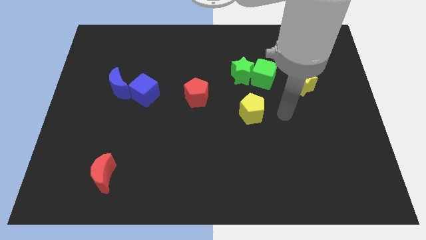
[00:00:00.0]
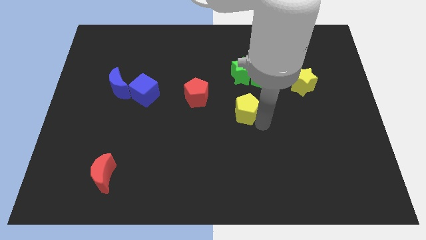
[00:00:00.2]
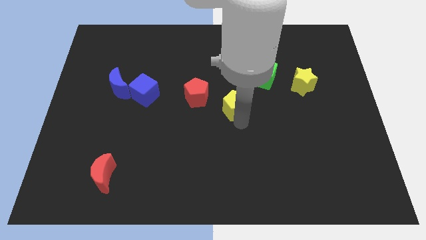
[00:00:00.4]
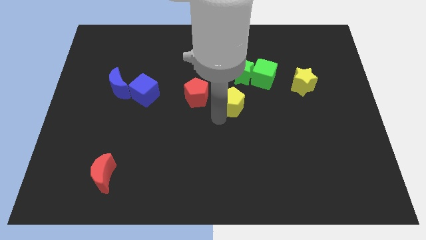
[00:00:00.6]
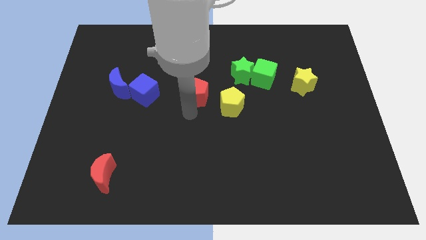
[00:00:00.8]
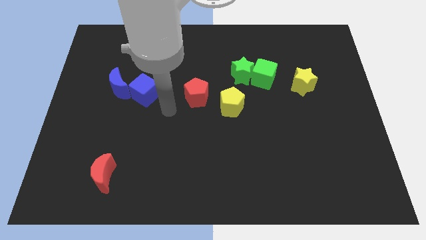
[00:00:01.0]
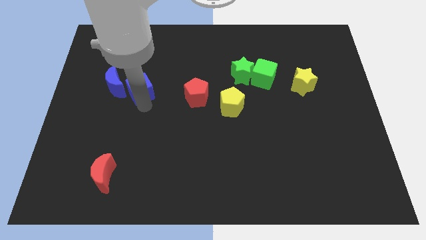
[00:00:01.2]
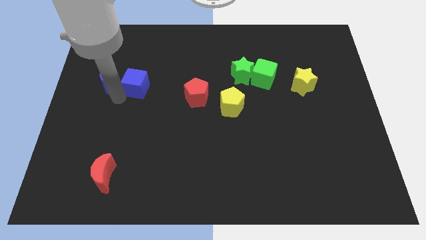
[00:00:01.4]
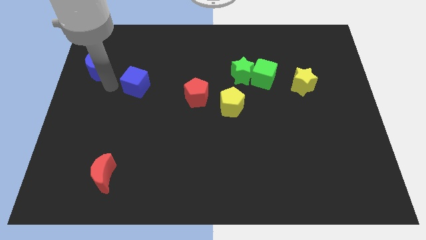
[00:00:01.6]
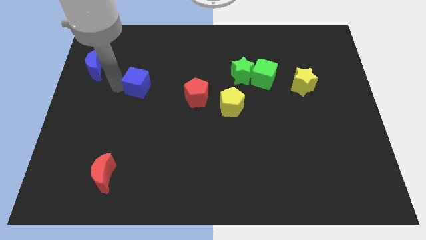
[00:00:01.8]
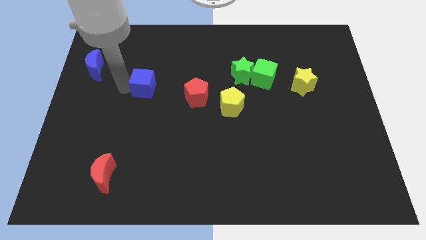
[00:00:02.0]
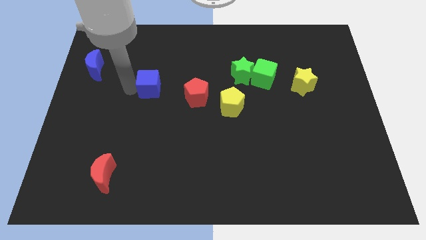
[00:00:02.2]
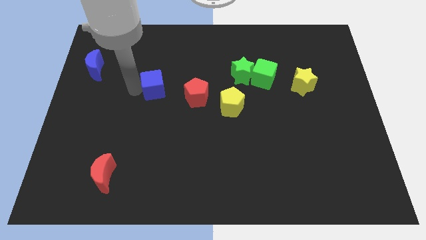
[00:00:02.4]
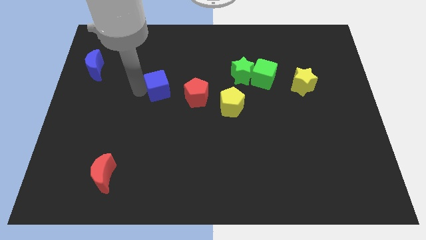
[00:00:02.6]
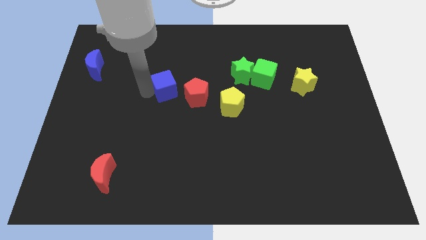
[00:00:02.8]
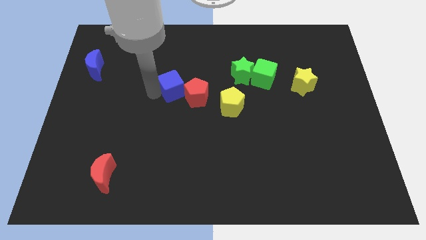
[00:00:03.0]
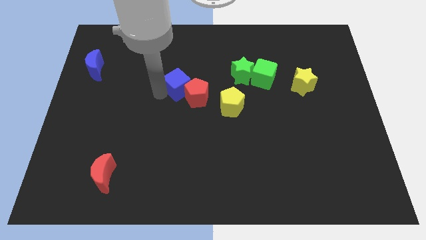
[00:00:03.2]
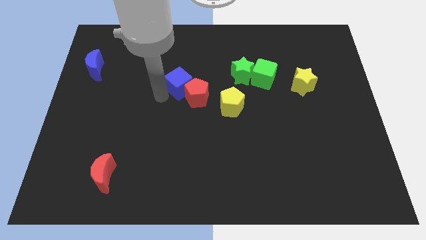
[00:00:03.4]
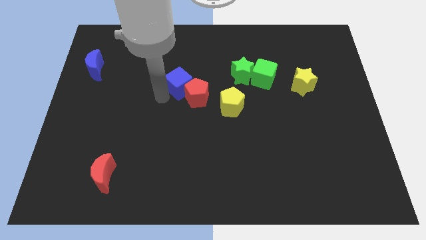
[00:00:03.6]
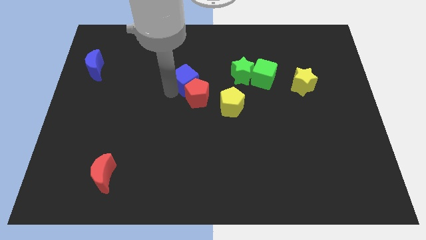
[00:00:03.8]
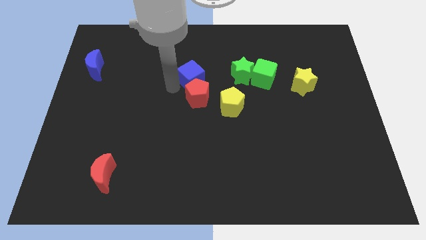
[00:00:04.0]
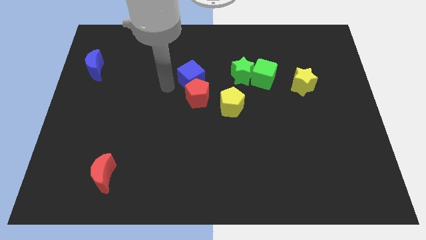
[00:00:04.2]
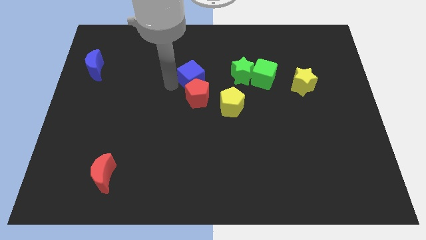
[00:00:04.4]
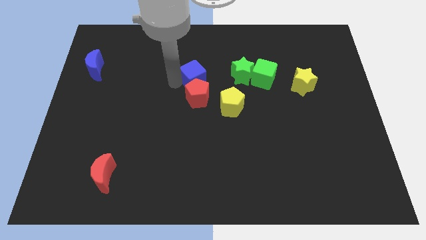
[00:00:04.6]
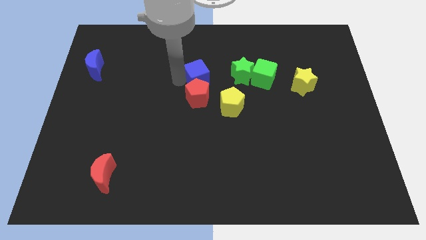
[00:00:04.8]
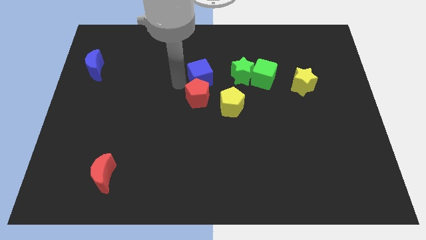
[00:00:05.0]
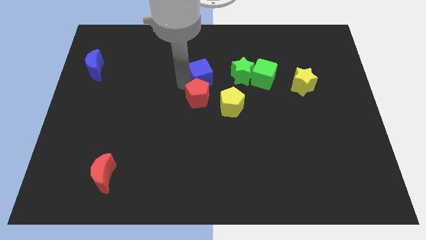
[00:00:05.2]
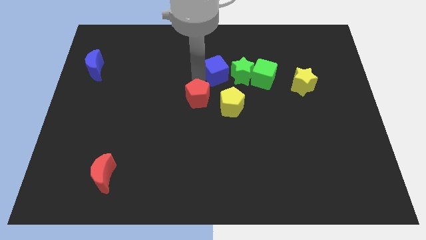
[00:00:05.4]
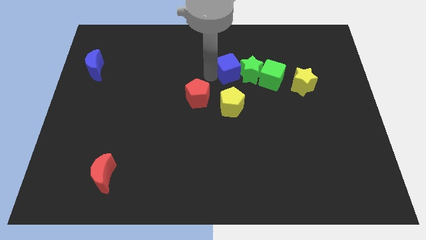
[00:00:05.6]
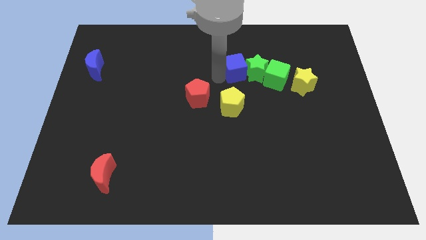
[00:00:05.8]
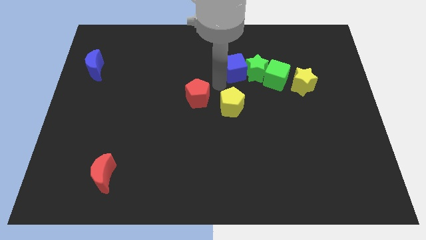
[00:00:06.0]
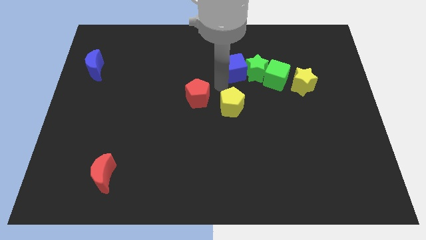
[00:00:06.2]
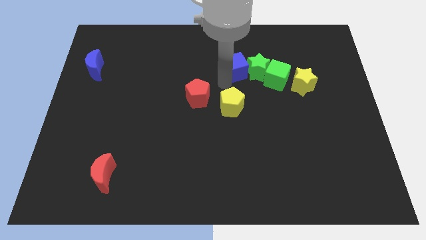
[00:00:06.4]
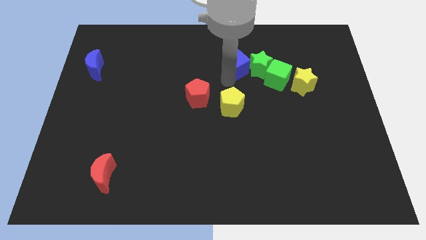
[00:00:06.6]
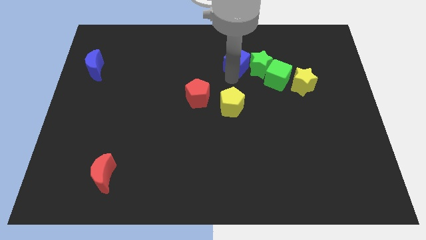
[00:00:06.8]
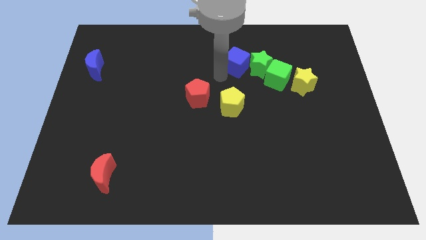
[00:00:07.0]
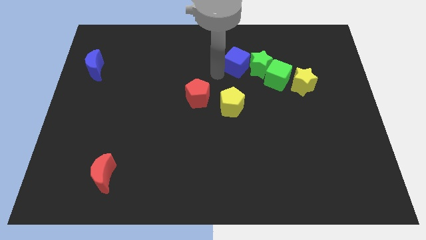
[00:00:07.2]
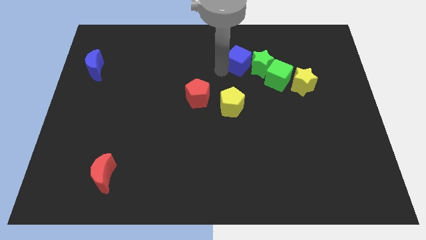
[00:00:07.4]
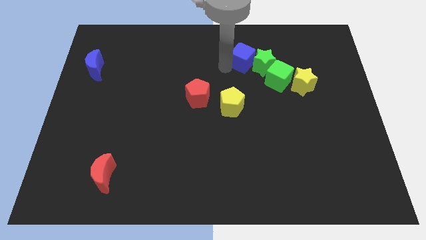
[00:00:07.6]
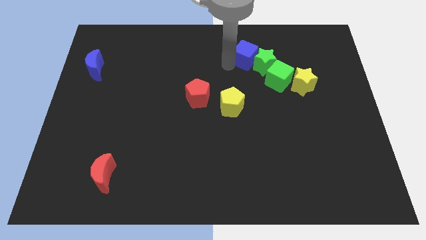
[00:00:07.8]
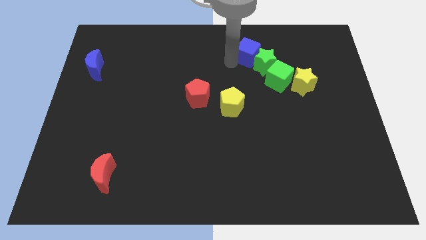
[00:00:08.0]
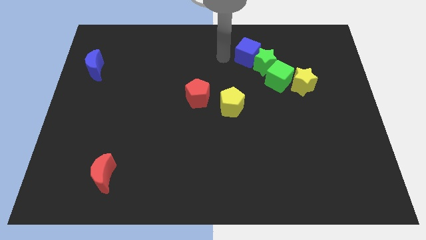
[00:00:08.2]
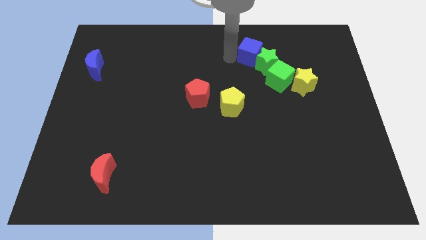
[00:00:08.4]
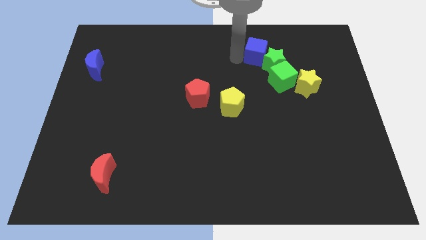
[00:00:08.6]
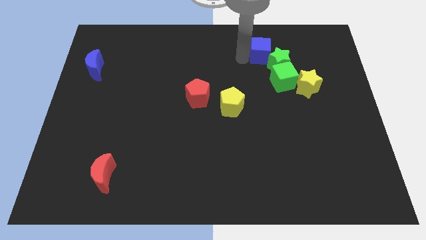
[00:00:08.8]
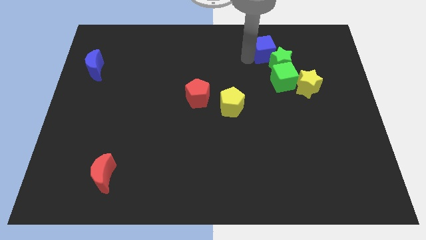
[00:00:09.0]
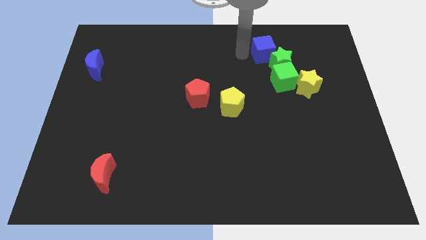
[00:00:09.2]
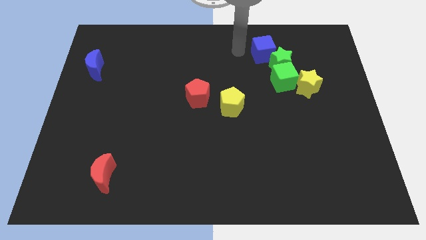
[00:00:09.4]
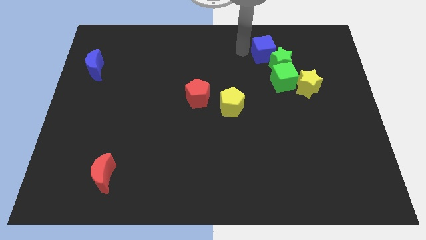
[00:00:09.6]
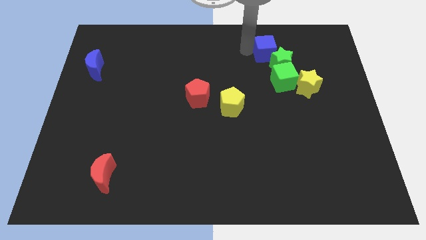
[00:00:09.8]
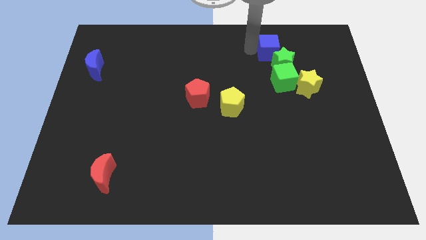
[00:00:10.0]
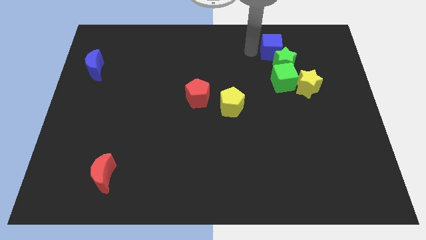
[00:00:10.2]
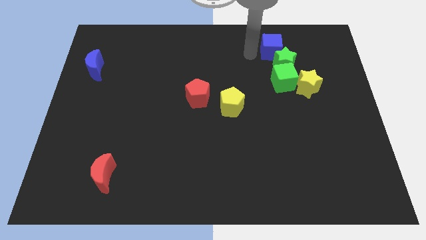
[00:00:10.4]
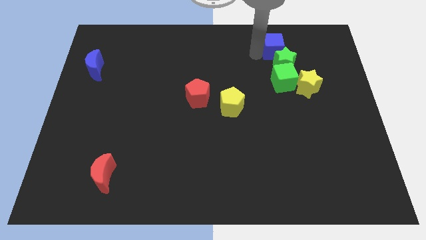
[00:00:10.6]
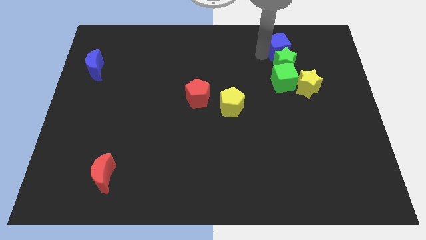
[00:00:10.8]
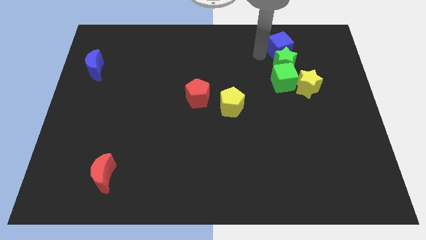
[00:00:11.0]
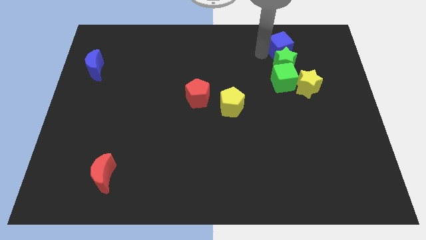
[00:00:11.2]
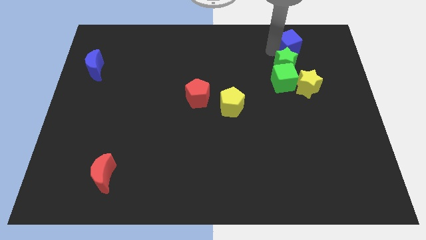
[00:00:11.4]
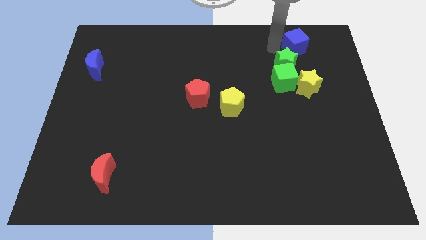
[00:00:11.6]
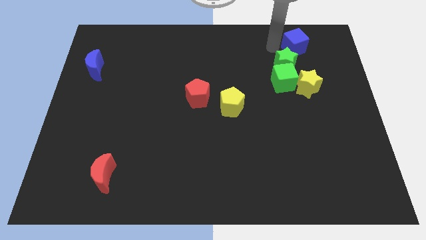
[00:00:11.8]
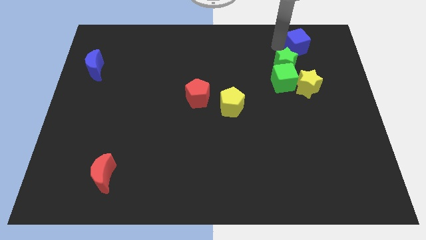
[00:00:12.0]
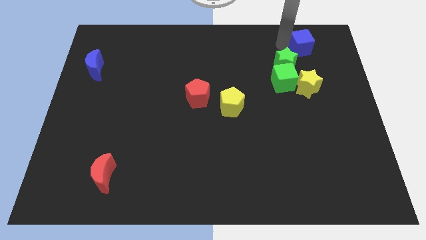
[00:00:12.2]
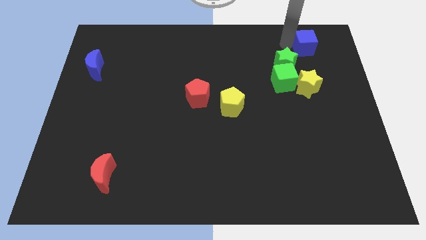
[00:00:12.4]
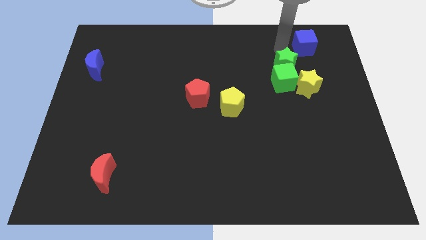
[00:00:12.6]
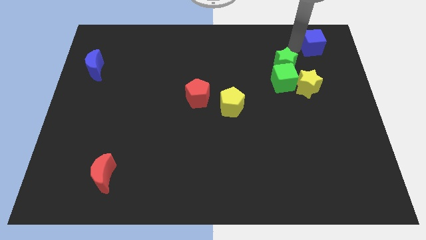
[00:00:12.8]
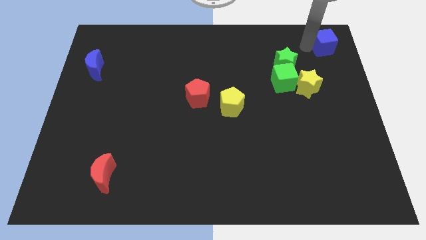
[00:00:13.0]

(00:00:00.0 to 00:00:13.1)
move the blue cube to the top right of the board
